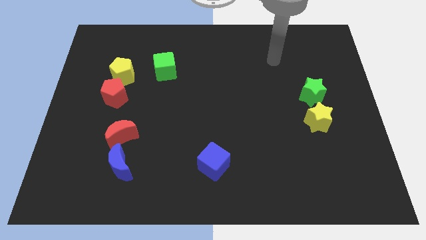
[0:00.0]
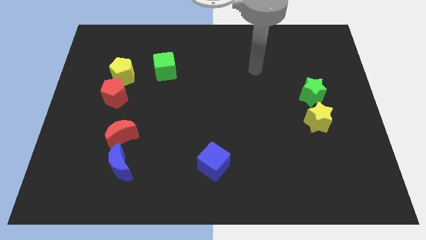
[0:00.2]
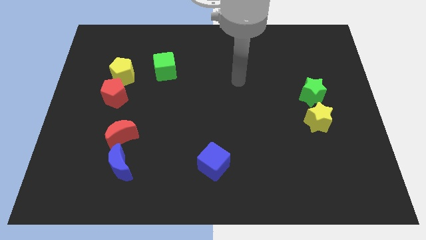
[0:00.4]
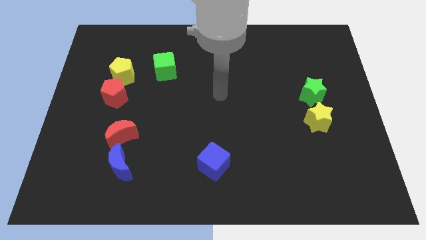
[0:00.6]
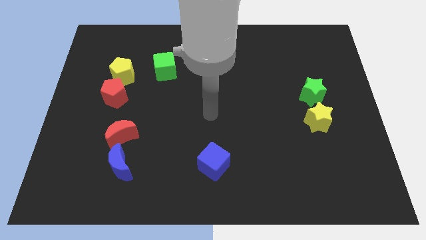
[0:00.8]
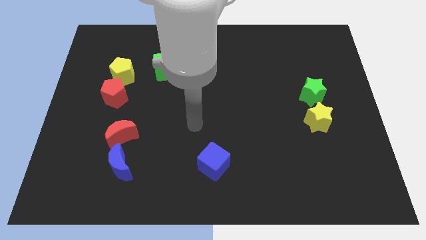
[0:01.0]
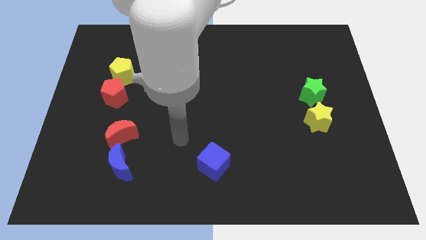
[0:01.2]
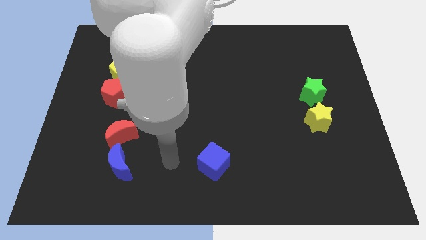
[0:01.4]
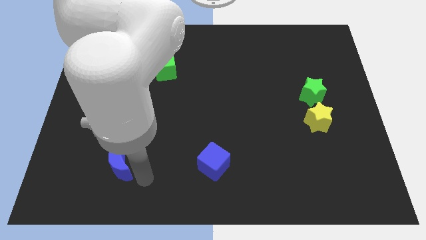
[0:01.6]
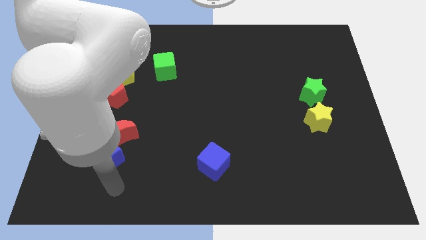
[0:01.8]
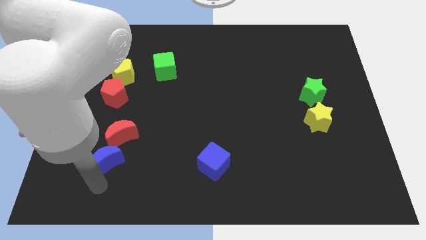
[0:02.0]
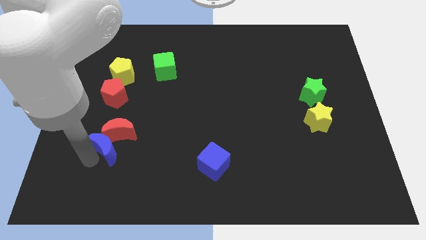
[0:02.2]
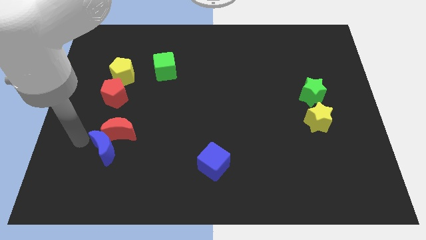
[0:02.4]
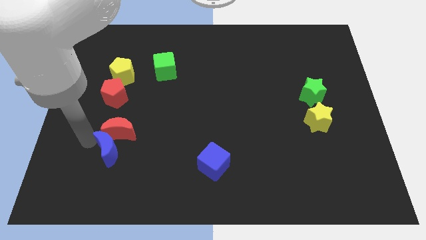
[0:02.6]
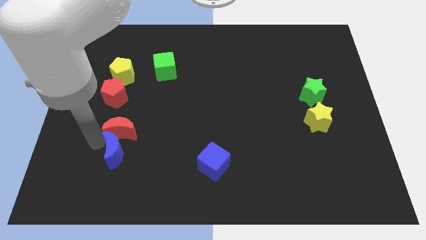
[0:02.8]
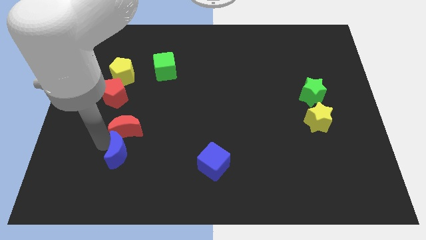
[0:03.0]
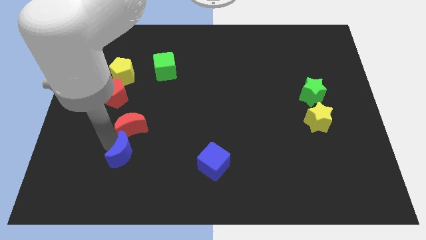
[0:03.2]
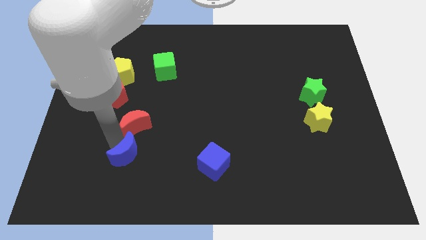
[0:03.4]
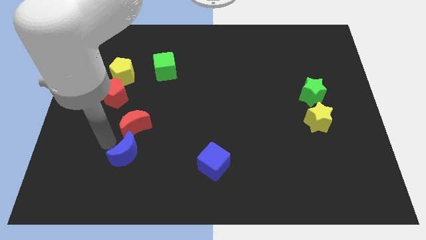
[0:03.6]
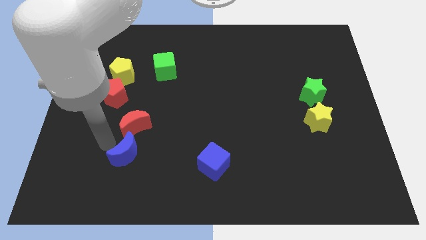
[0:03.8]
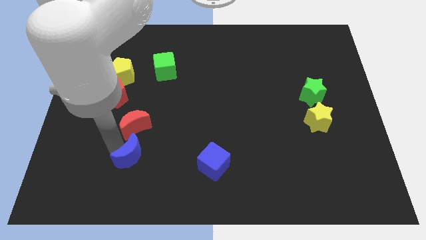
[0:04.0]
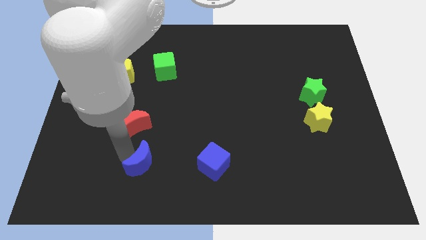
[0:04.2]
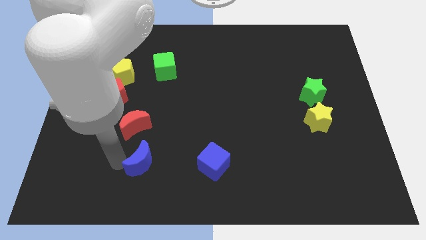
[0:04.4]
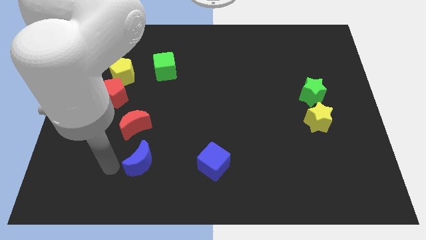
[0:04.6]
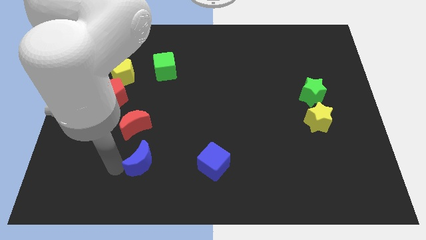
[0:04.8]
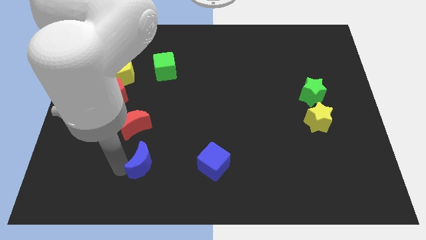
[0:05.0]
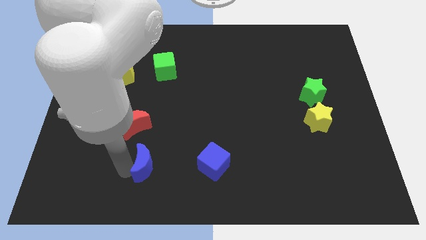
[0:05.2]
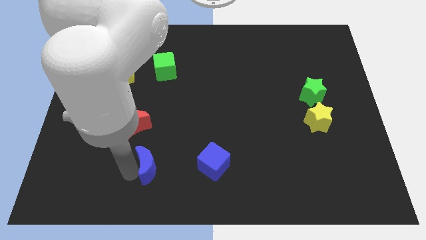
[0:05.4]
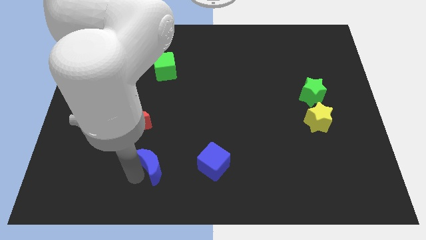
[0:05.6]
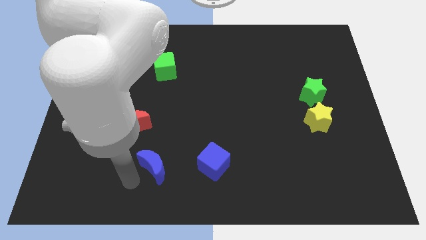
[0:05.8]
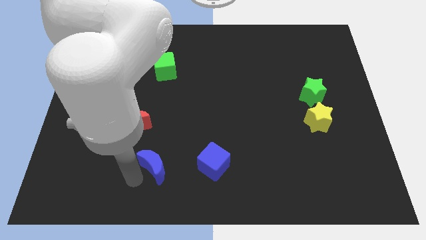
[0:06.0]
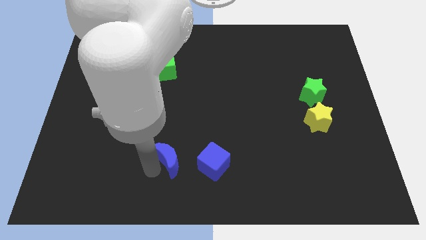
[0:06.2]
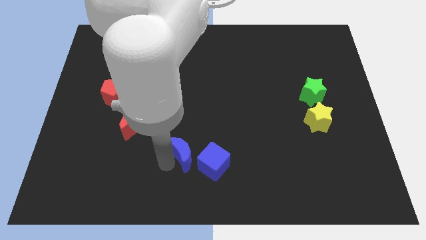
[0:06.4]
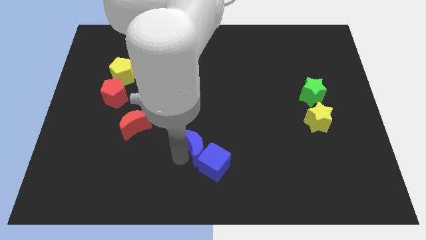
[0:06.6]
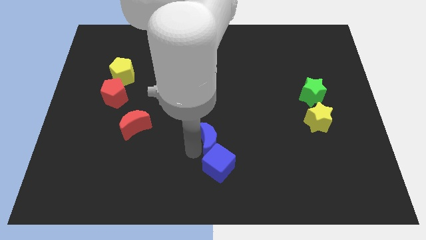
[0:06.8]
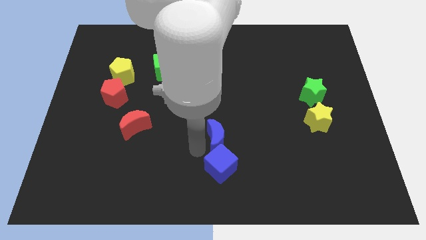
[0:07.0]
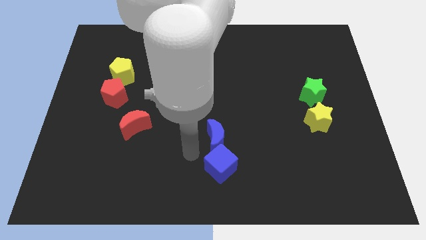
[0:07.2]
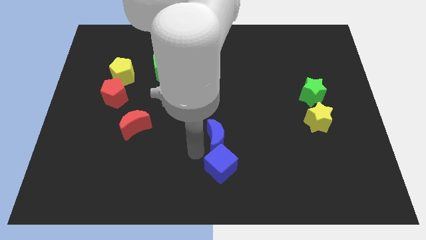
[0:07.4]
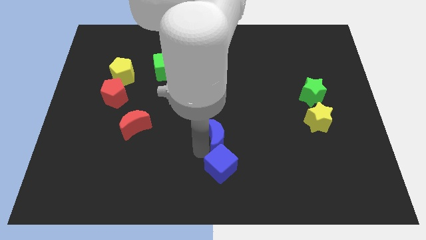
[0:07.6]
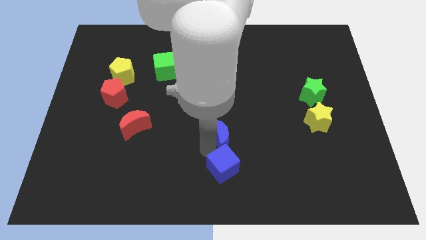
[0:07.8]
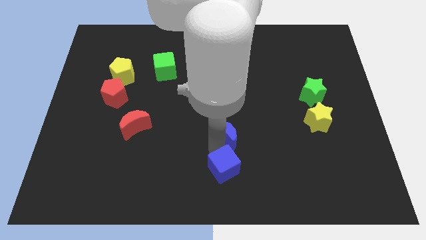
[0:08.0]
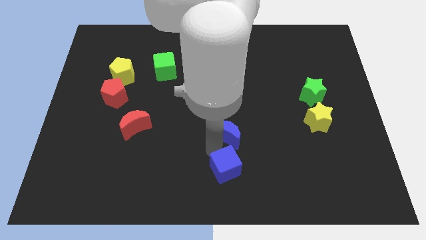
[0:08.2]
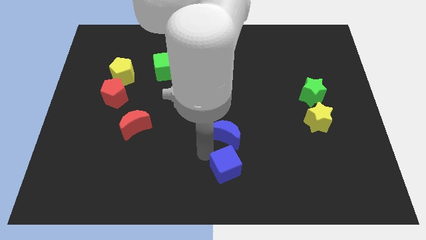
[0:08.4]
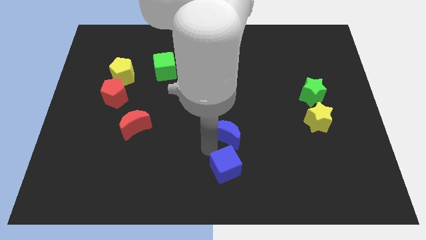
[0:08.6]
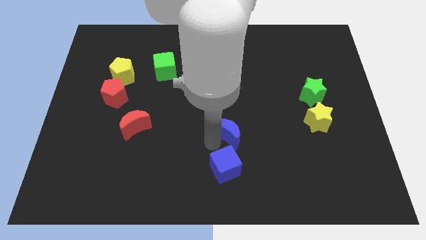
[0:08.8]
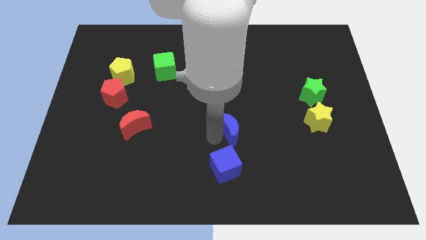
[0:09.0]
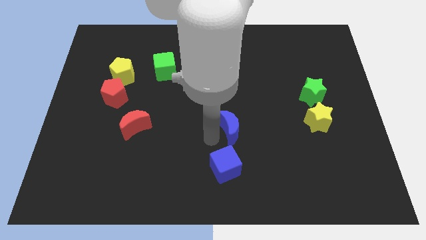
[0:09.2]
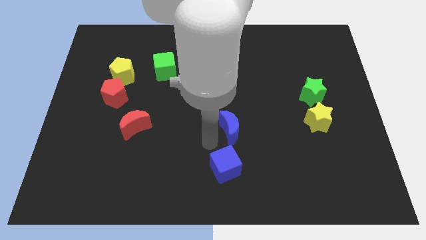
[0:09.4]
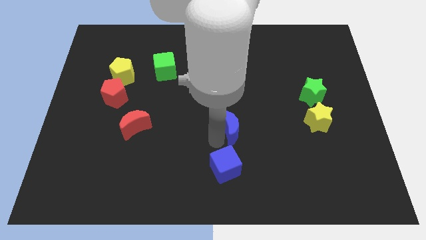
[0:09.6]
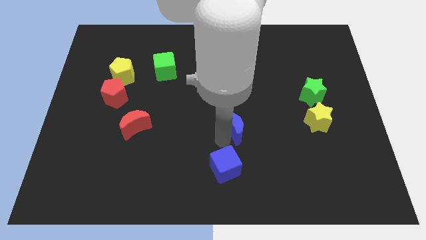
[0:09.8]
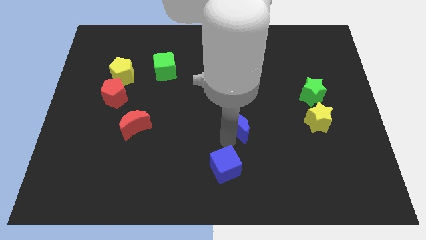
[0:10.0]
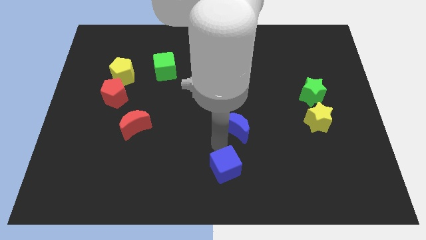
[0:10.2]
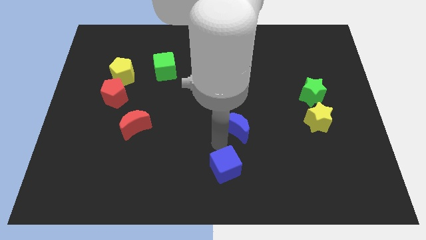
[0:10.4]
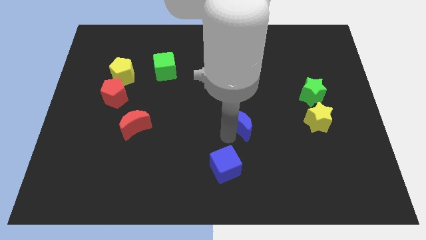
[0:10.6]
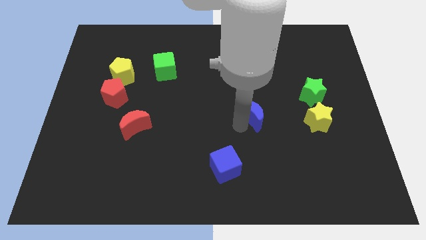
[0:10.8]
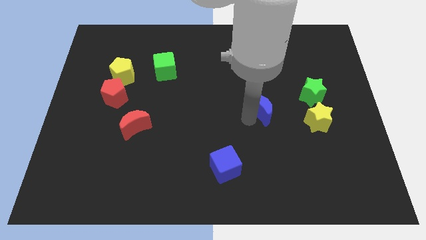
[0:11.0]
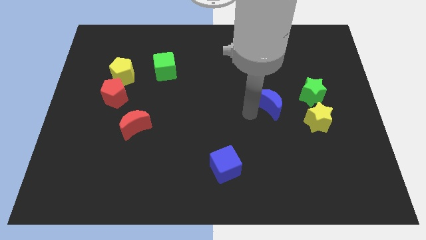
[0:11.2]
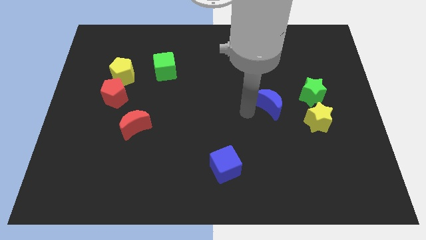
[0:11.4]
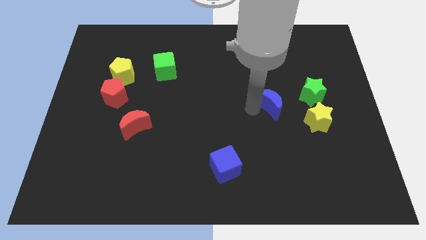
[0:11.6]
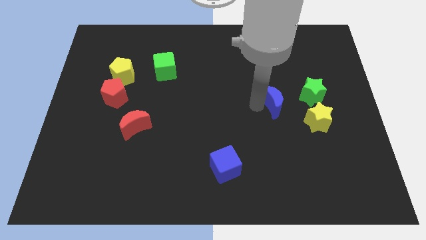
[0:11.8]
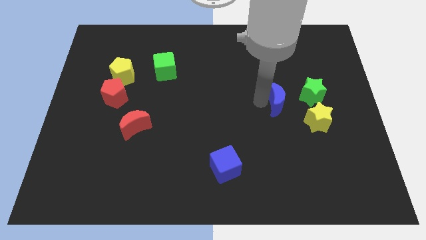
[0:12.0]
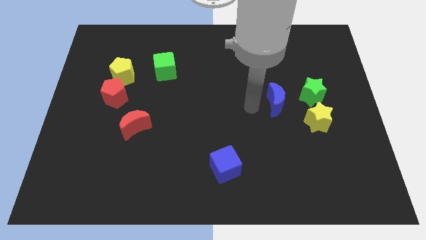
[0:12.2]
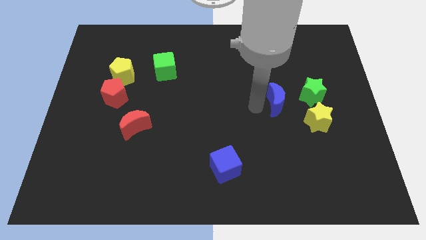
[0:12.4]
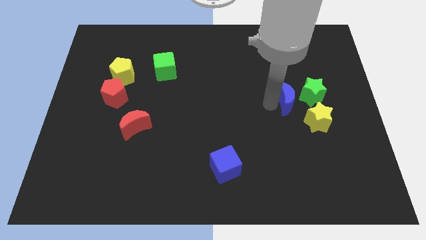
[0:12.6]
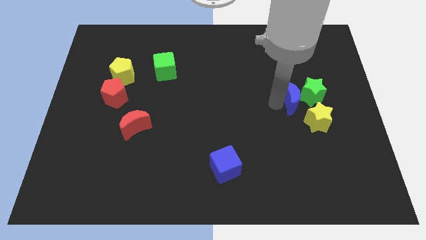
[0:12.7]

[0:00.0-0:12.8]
move the blue moon towards the green star

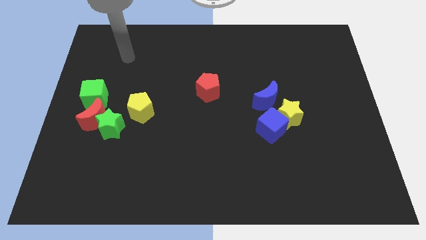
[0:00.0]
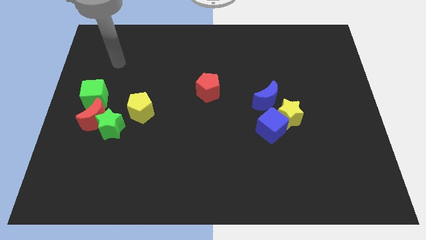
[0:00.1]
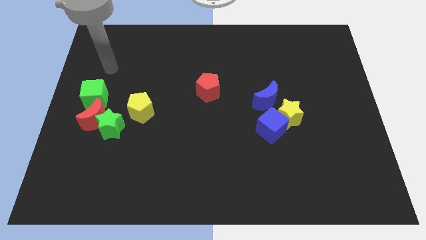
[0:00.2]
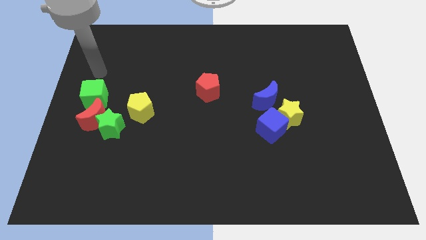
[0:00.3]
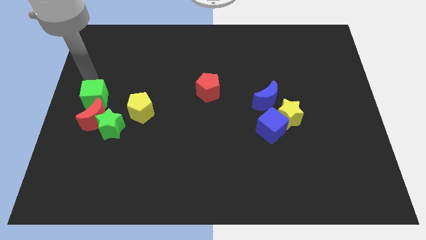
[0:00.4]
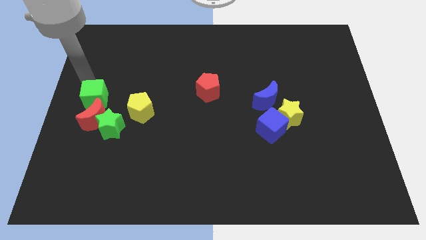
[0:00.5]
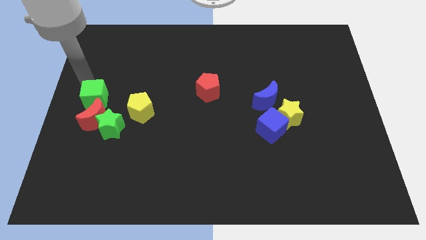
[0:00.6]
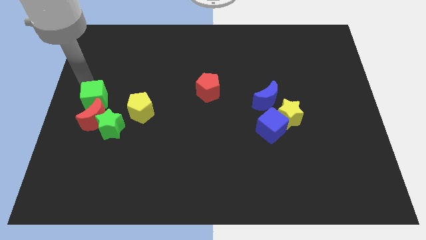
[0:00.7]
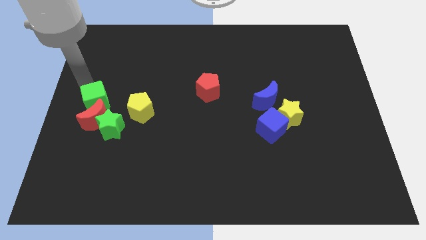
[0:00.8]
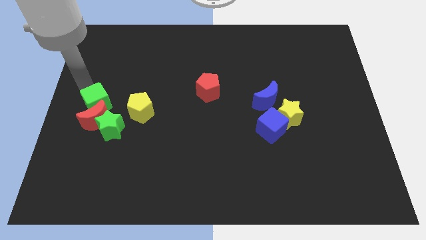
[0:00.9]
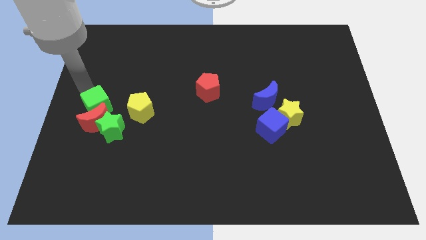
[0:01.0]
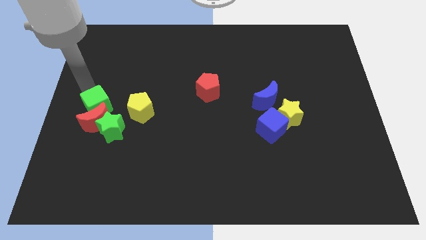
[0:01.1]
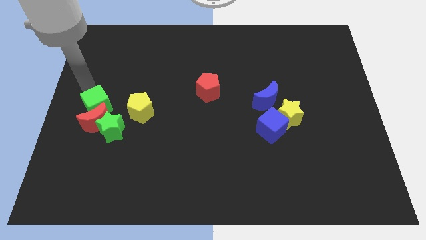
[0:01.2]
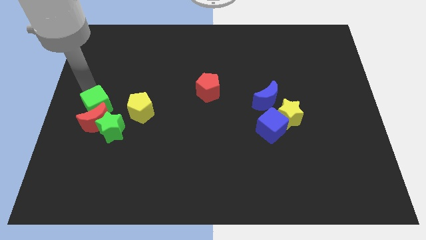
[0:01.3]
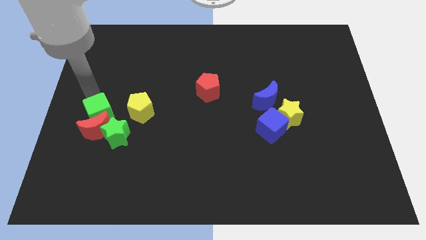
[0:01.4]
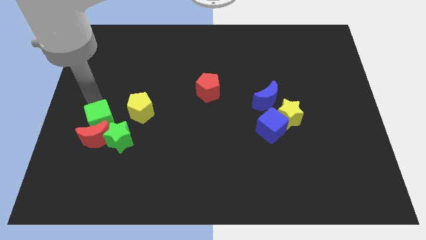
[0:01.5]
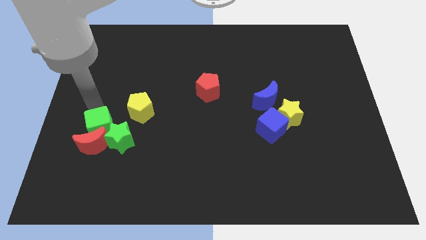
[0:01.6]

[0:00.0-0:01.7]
move the green cube next to the green star
